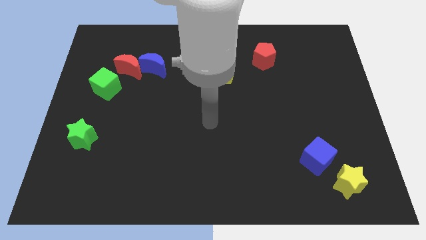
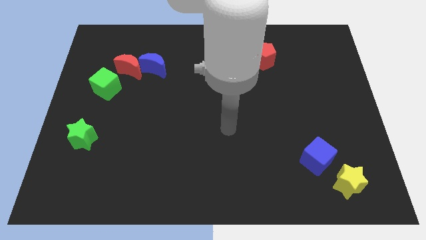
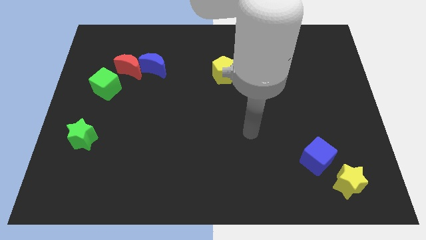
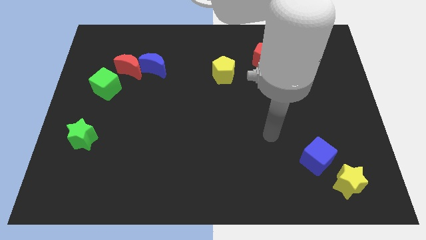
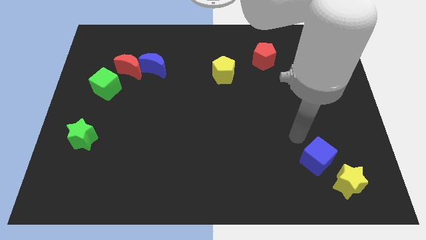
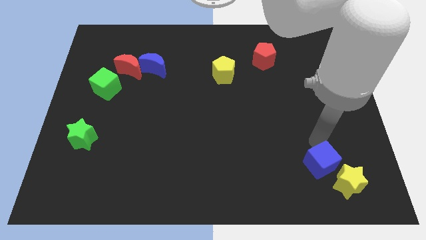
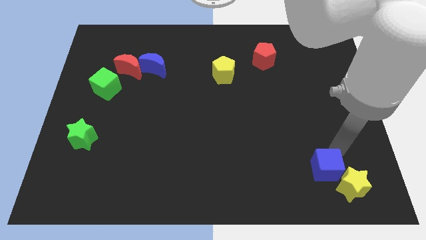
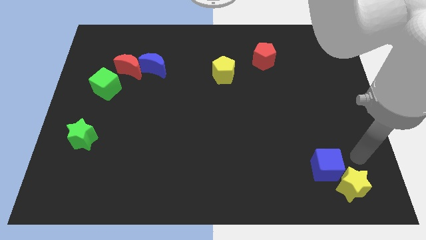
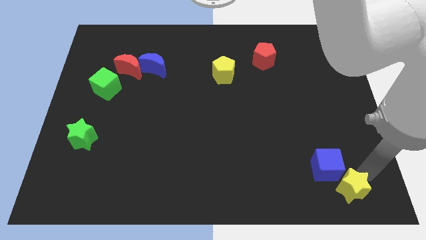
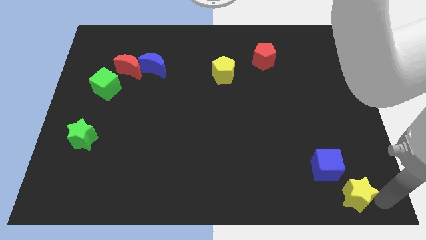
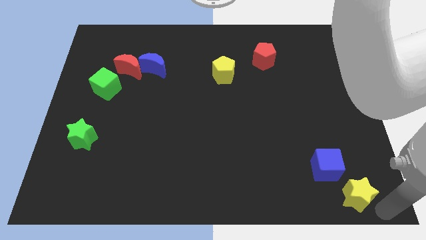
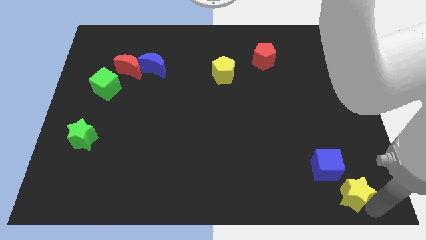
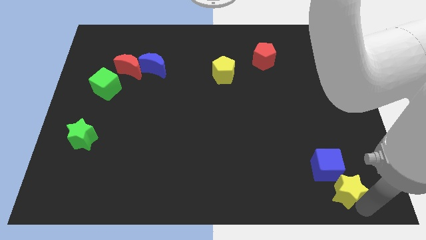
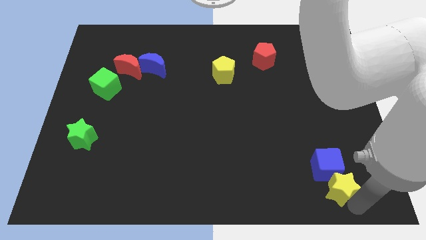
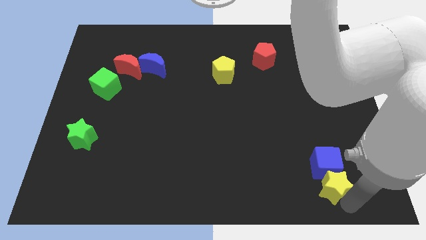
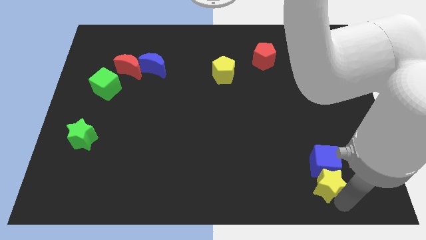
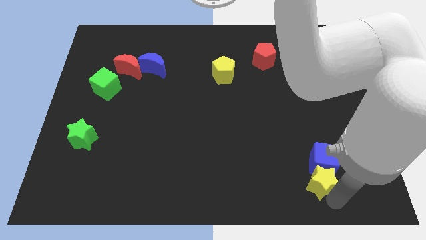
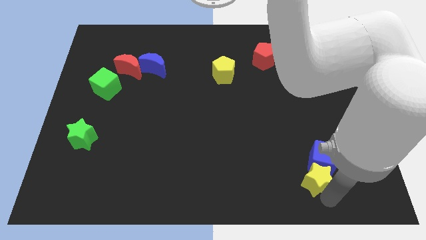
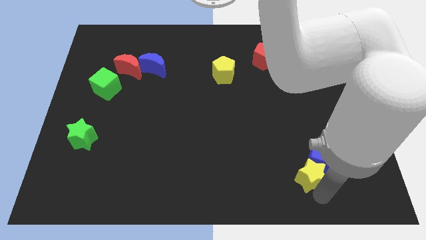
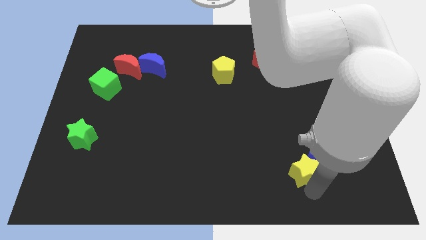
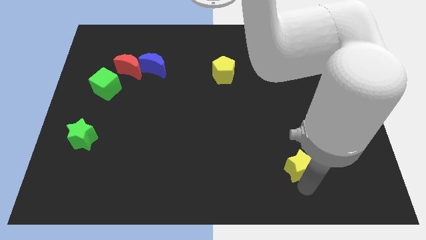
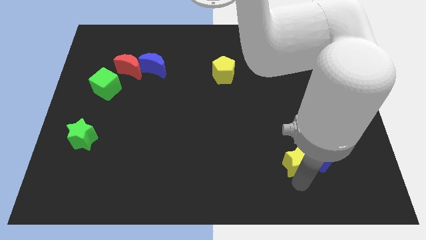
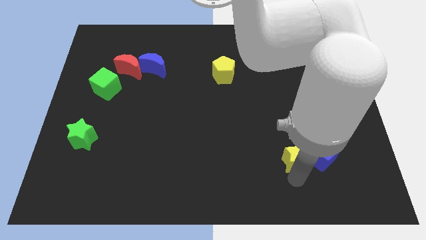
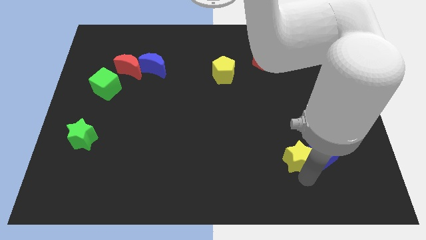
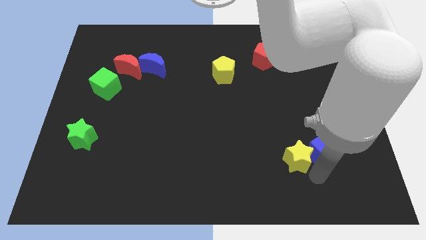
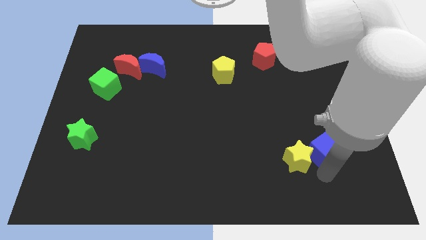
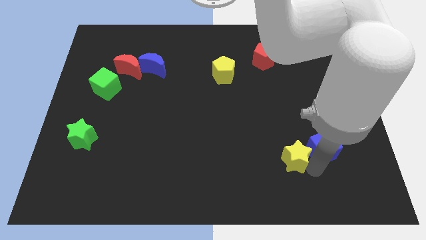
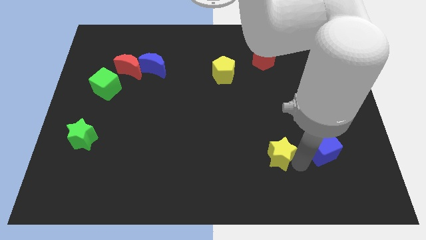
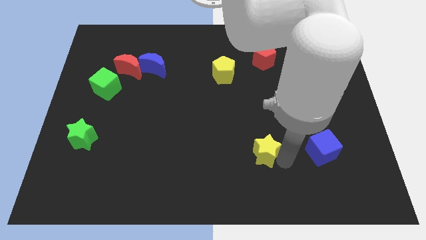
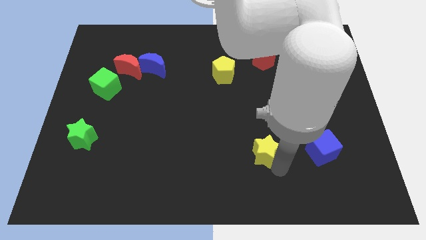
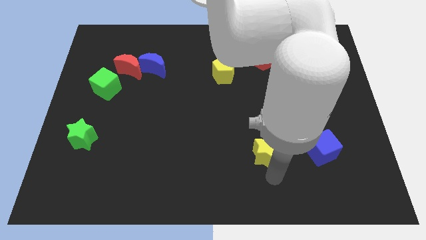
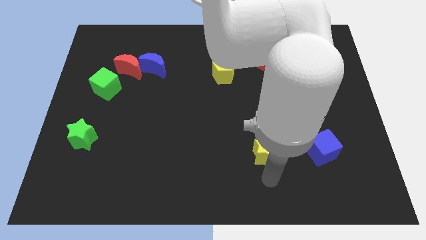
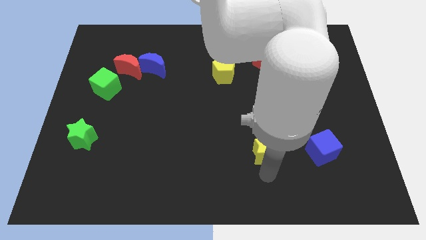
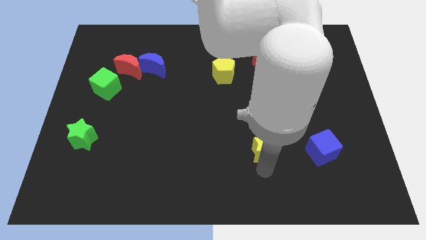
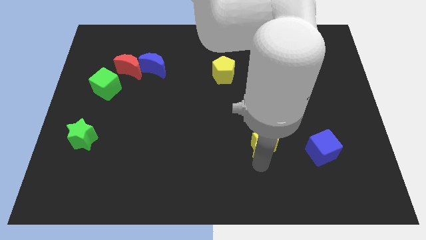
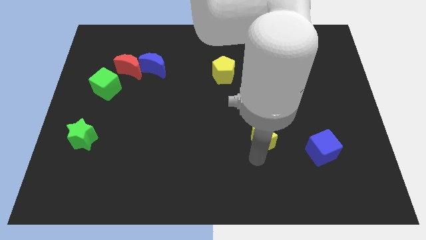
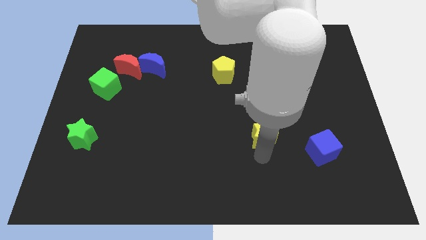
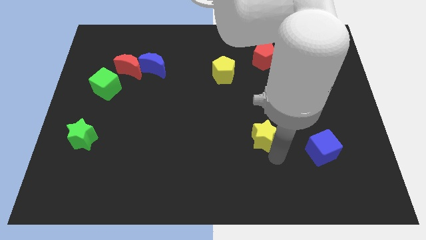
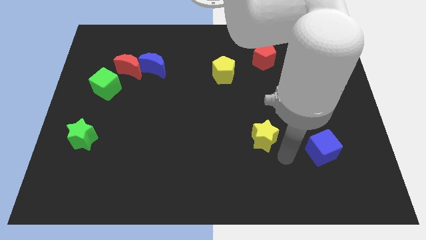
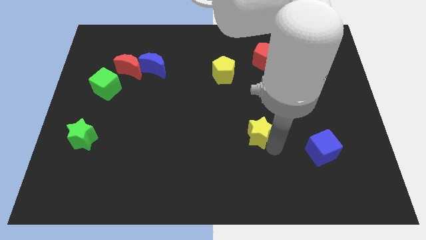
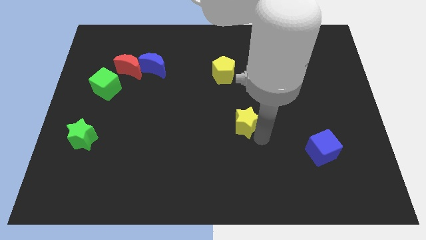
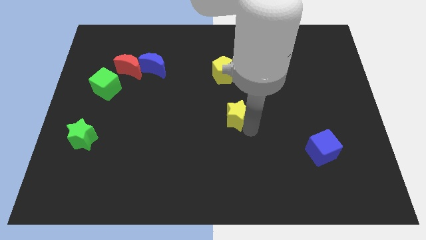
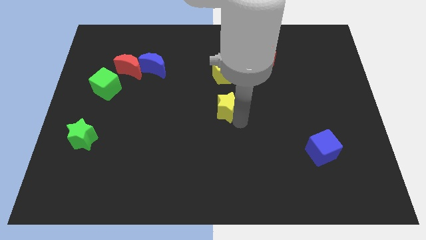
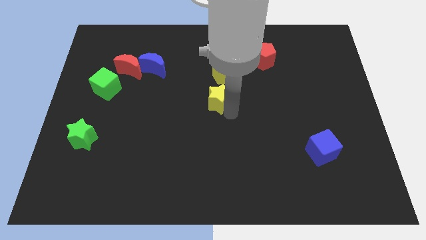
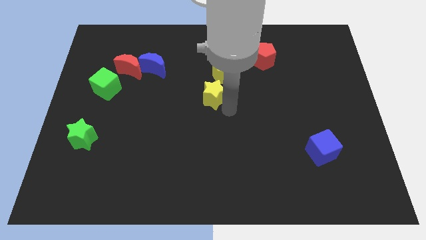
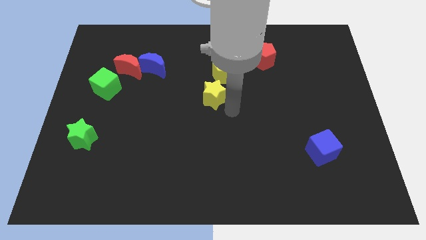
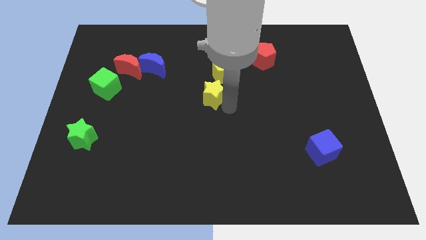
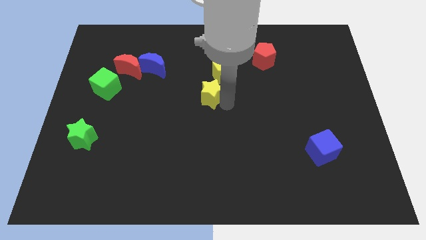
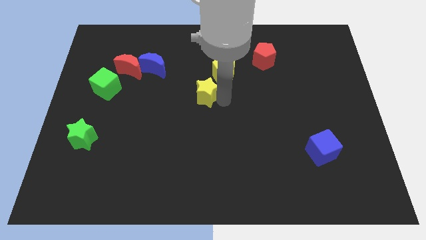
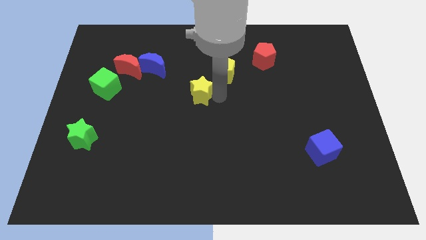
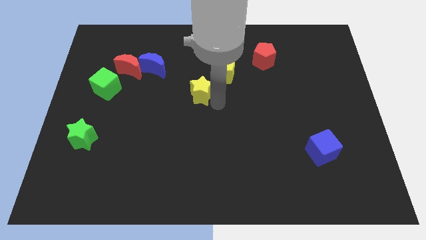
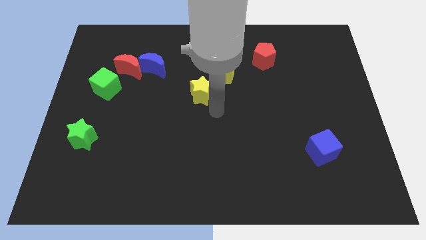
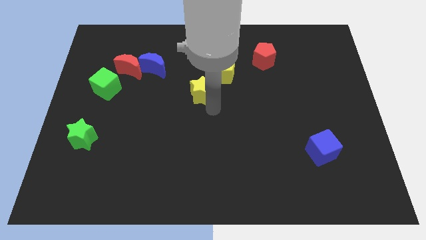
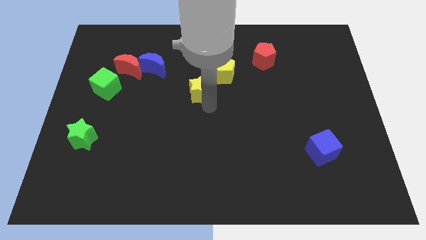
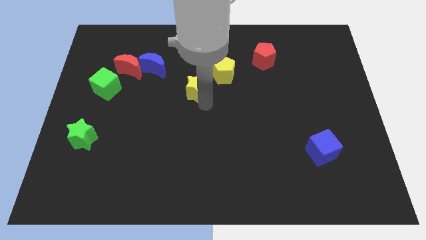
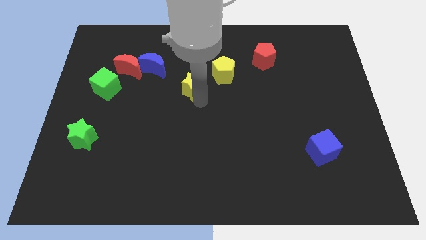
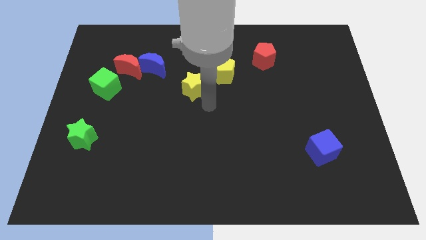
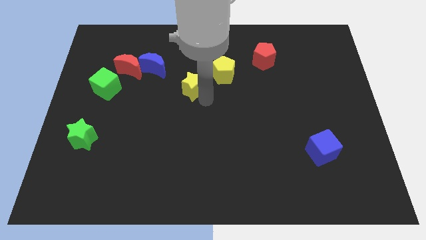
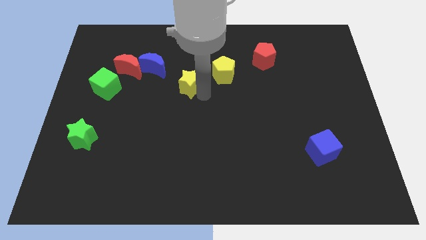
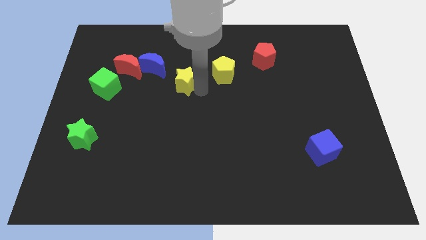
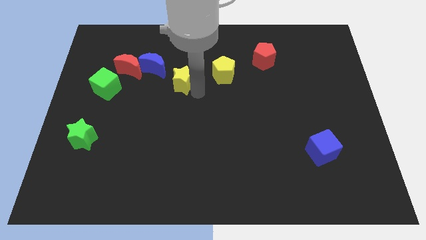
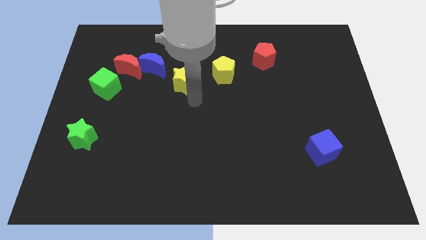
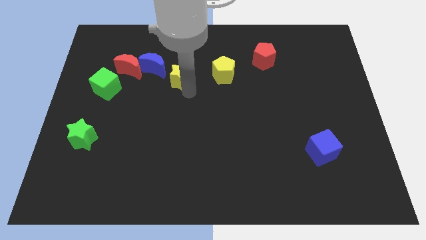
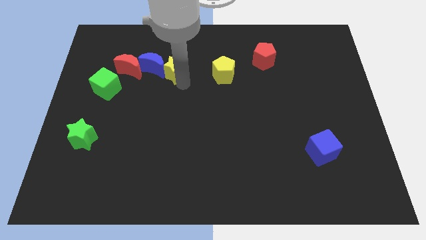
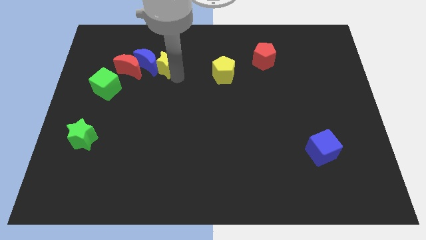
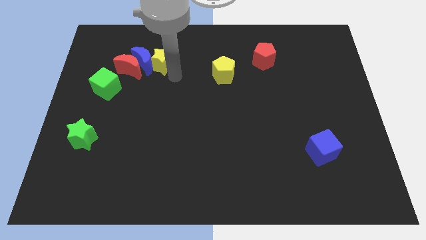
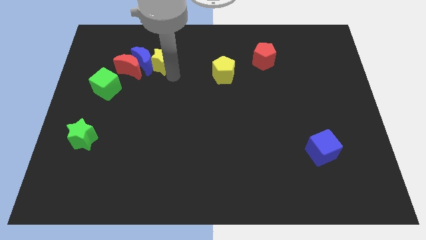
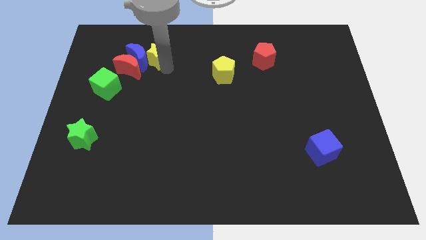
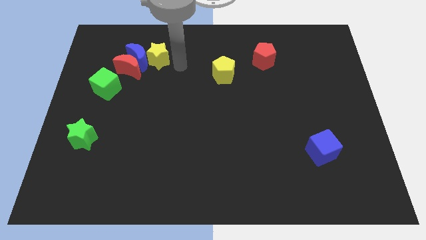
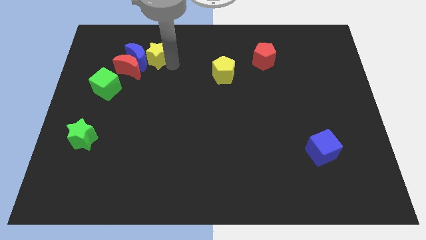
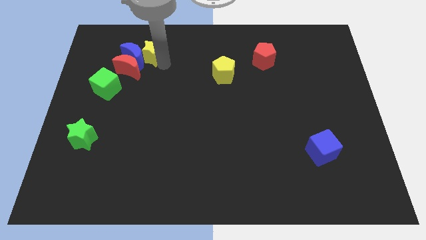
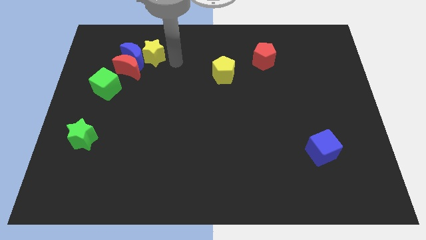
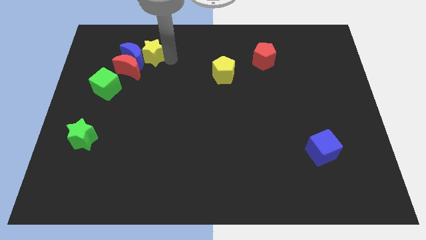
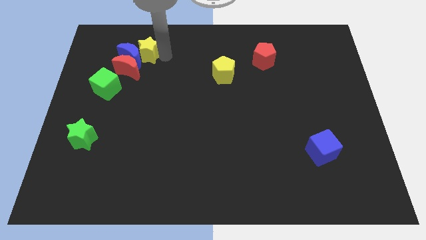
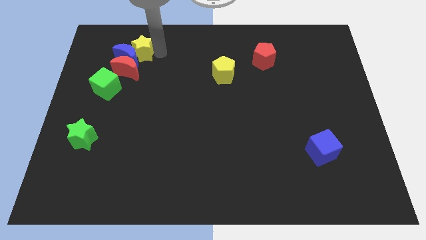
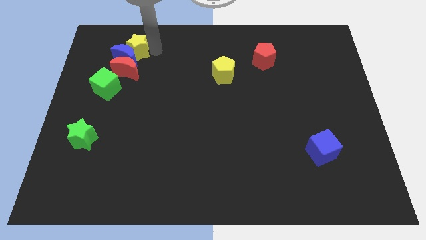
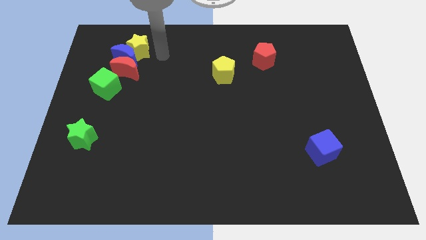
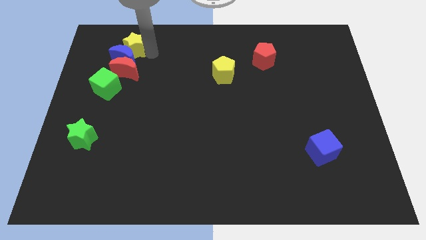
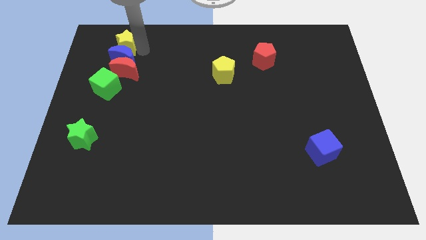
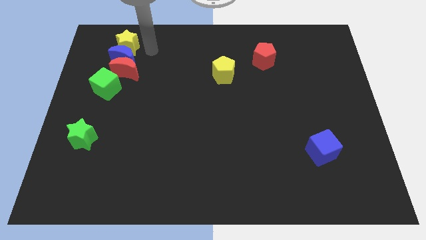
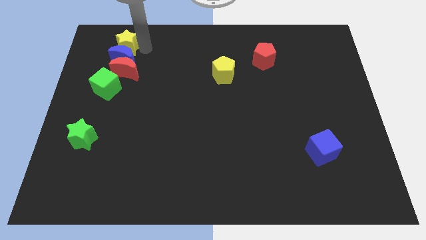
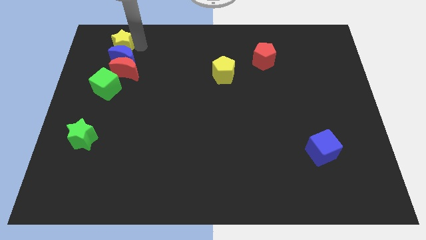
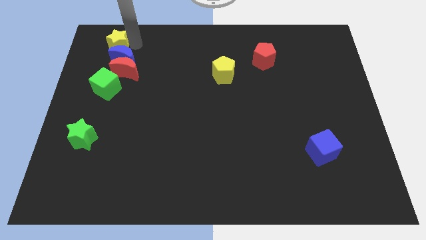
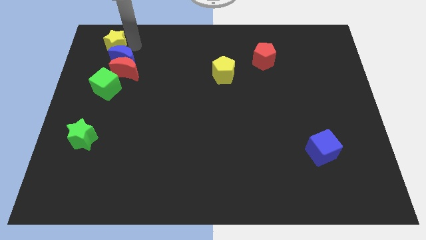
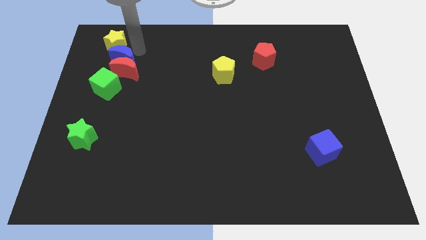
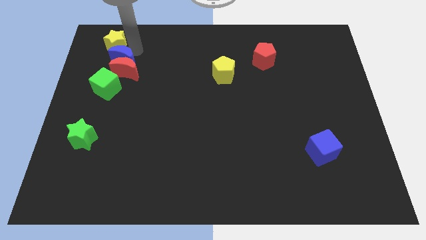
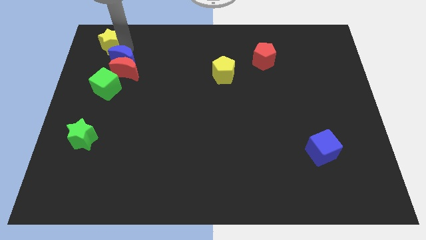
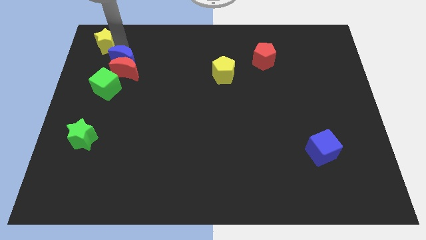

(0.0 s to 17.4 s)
move the yellow star to the top left of the board
